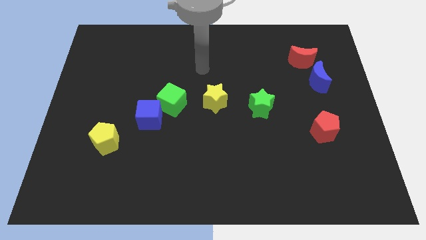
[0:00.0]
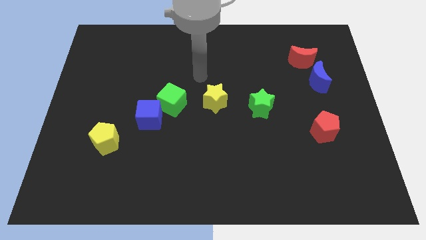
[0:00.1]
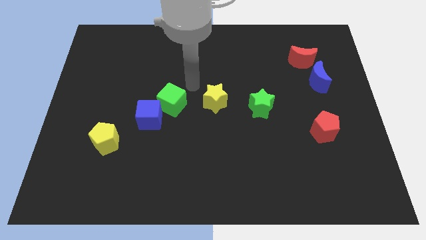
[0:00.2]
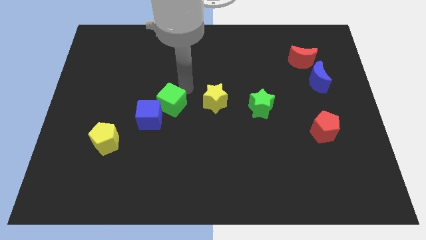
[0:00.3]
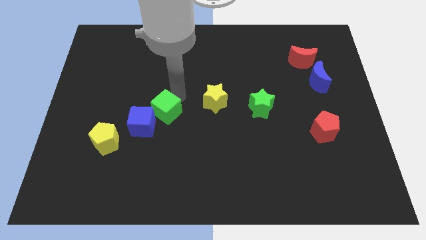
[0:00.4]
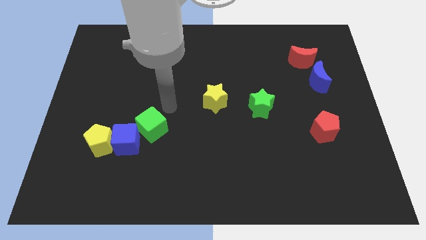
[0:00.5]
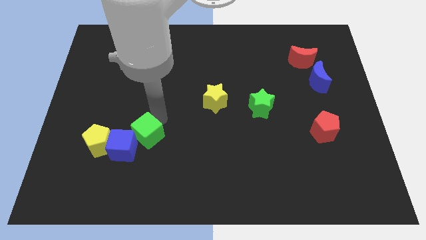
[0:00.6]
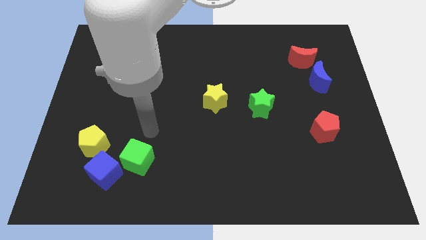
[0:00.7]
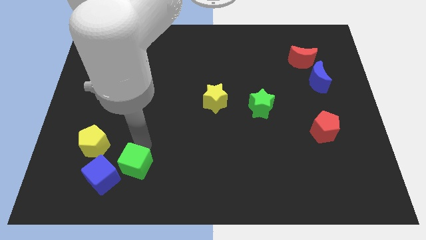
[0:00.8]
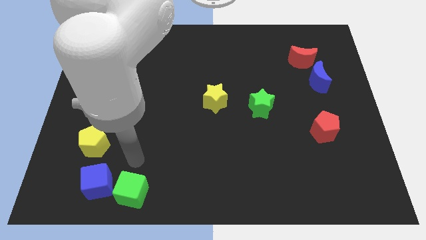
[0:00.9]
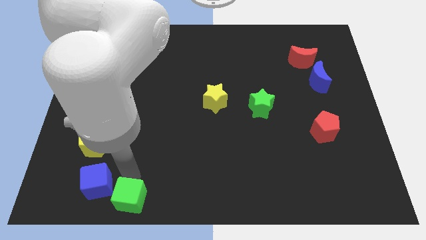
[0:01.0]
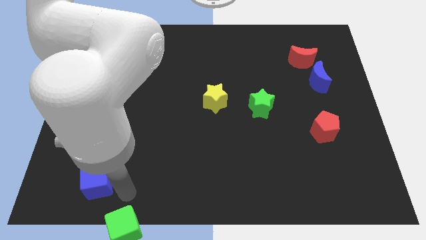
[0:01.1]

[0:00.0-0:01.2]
pull the blue cube apart from the green cube

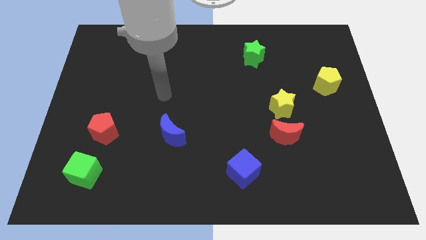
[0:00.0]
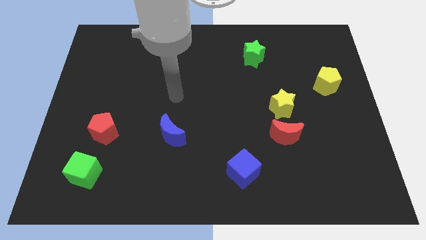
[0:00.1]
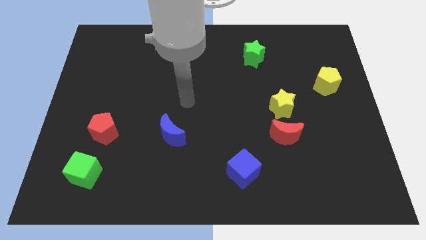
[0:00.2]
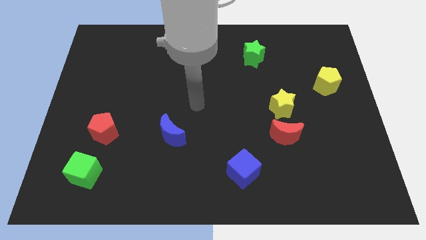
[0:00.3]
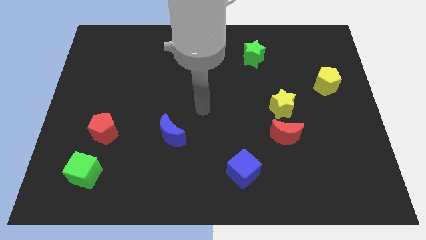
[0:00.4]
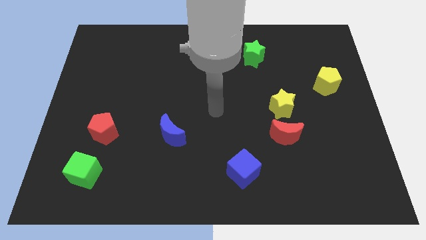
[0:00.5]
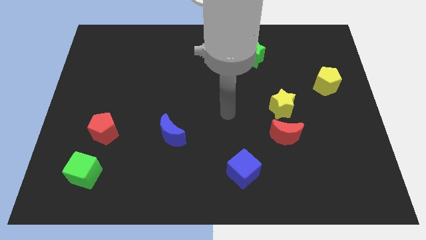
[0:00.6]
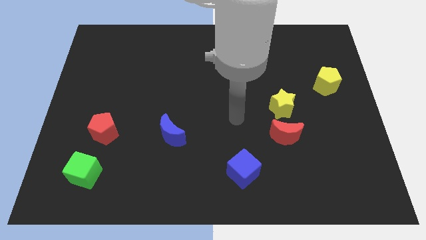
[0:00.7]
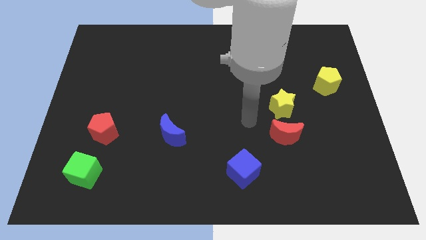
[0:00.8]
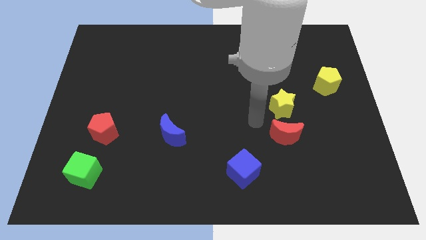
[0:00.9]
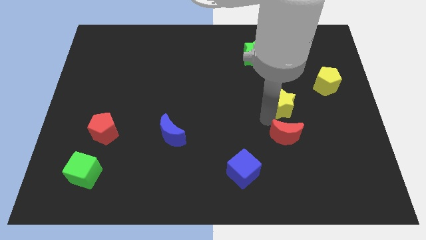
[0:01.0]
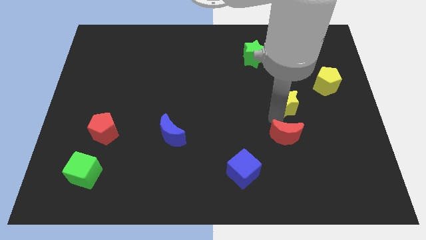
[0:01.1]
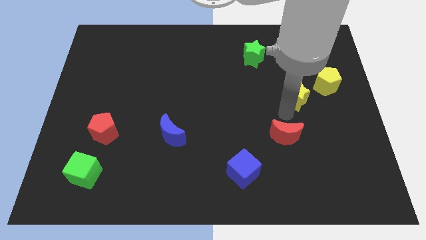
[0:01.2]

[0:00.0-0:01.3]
separate the red moon from the yellow star

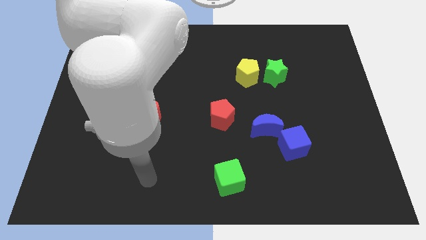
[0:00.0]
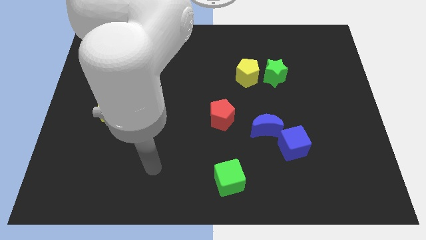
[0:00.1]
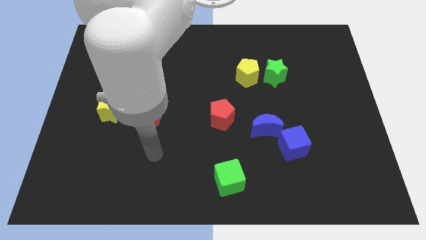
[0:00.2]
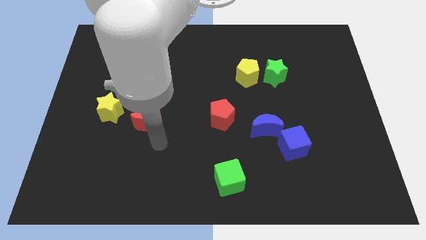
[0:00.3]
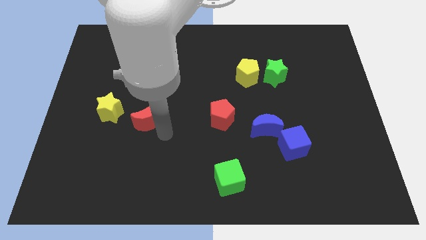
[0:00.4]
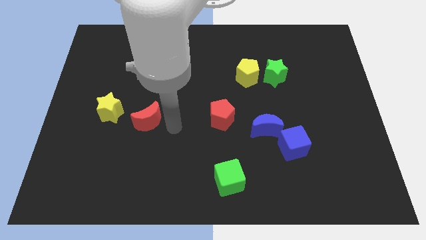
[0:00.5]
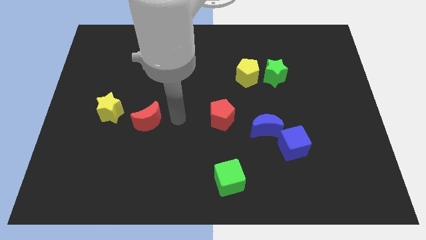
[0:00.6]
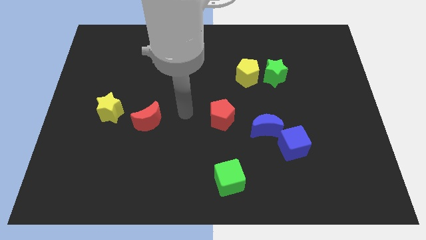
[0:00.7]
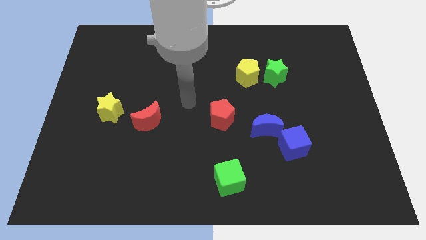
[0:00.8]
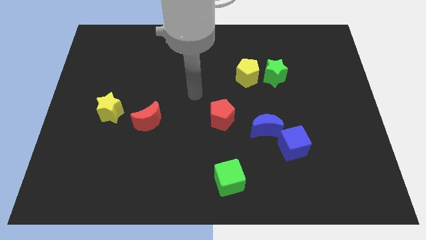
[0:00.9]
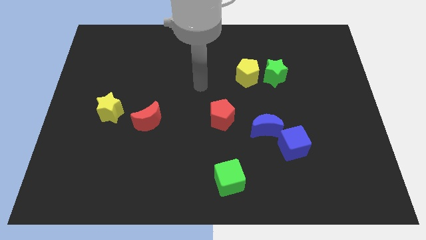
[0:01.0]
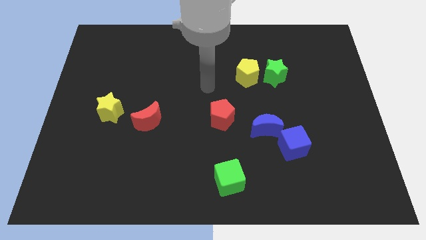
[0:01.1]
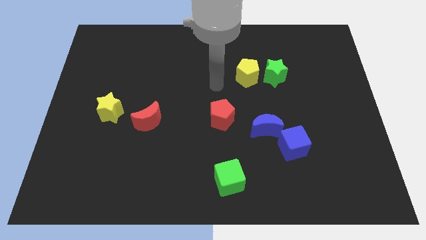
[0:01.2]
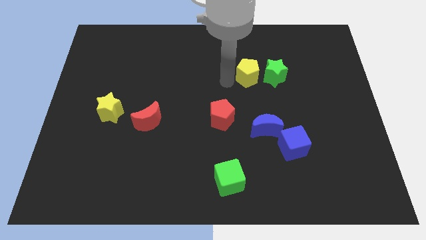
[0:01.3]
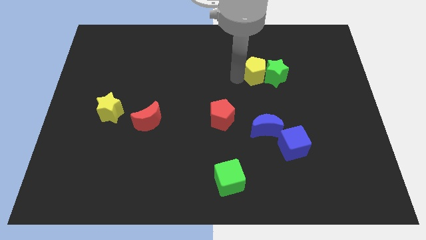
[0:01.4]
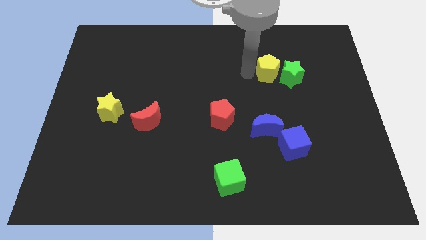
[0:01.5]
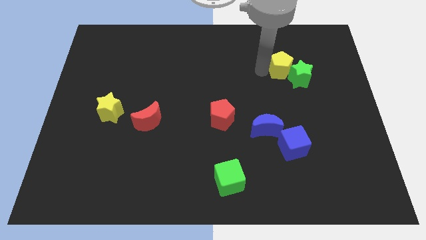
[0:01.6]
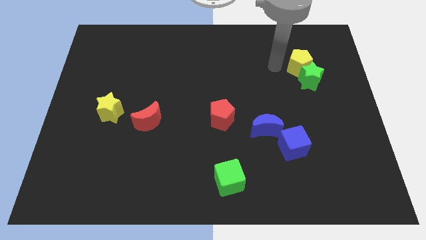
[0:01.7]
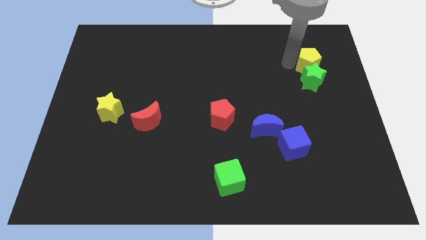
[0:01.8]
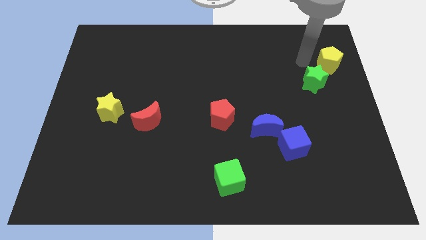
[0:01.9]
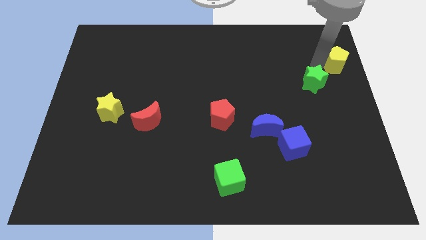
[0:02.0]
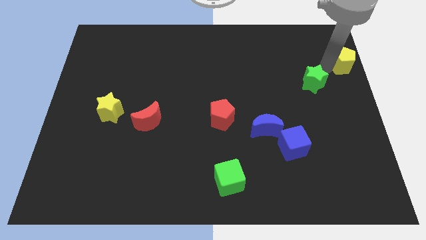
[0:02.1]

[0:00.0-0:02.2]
separate the green star from the yellow pentagon

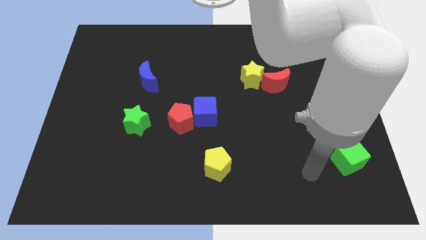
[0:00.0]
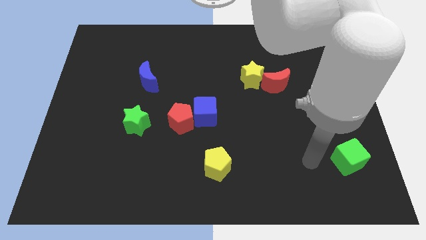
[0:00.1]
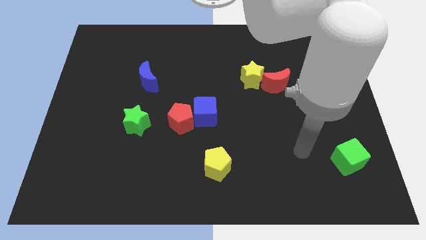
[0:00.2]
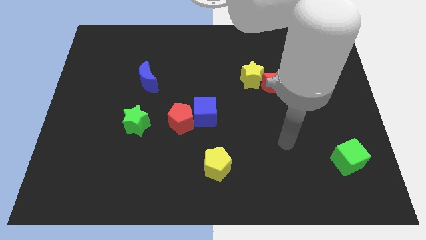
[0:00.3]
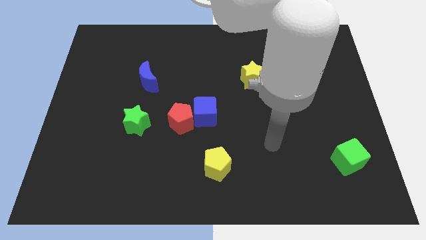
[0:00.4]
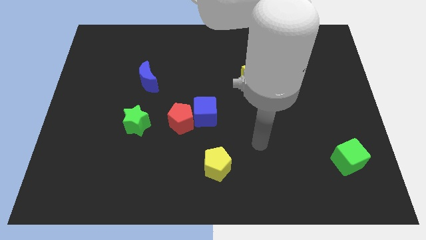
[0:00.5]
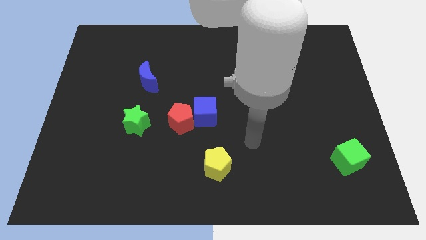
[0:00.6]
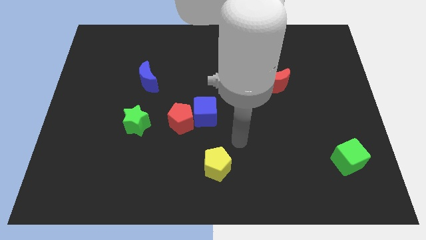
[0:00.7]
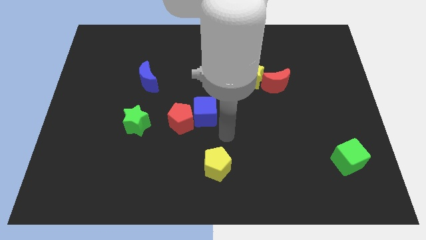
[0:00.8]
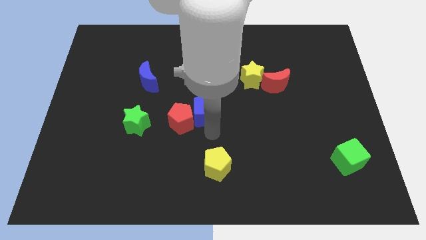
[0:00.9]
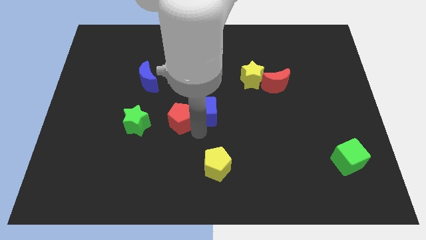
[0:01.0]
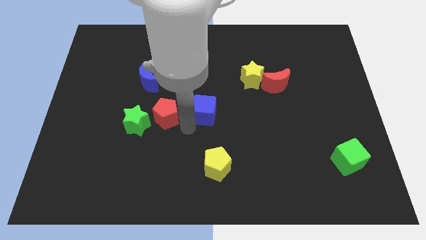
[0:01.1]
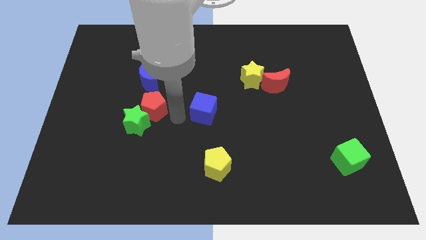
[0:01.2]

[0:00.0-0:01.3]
move the blue cube away from the red pentagon

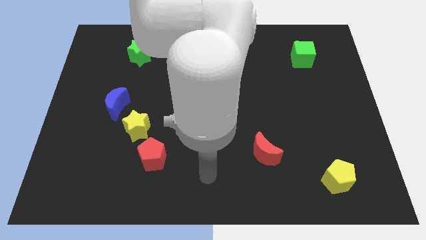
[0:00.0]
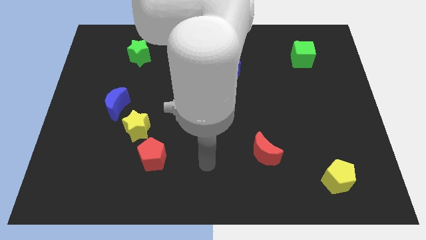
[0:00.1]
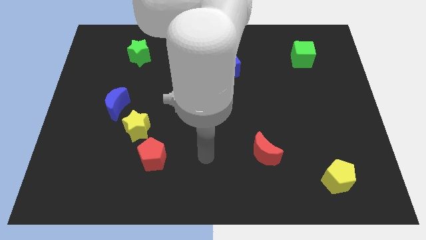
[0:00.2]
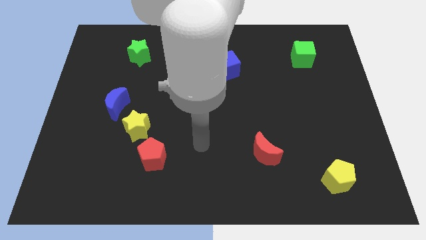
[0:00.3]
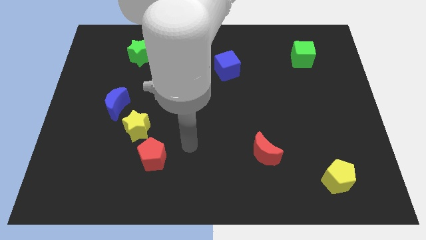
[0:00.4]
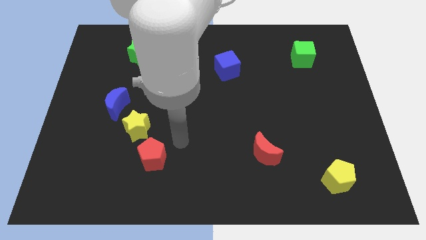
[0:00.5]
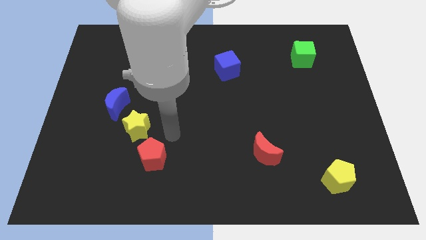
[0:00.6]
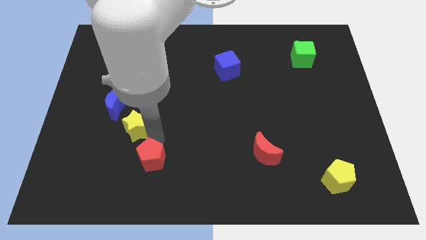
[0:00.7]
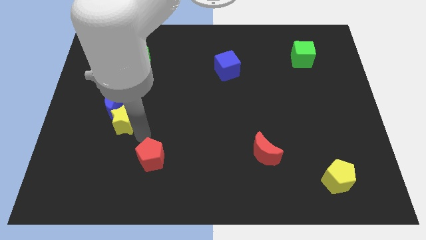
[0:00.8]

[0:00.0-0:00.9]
separate the red pentagon from the yellow star

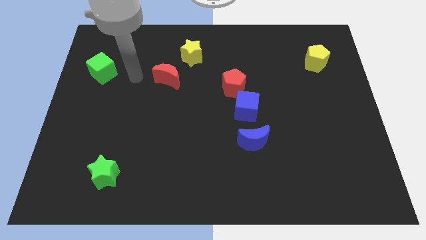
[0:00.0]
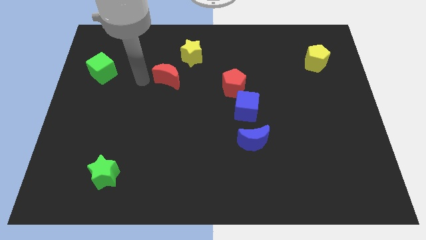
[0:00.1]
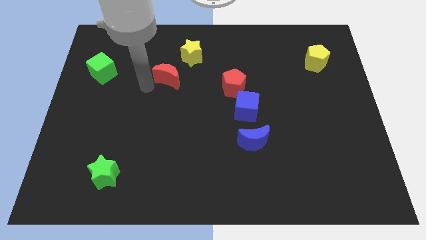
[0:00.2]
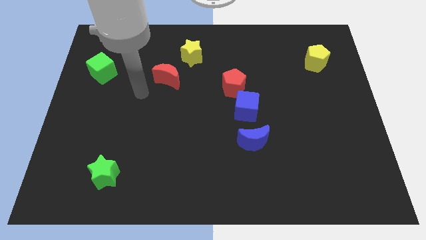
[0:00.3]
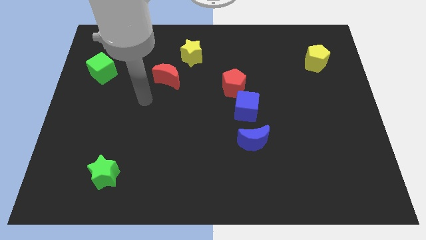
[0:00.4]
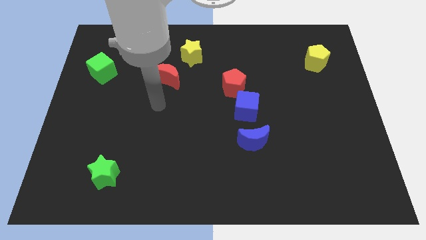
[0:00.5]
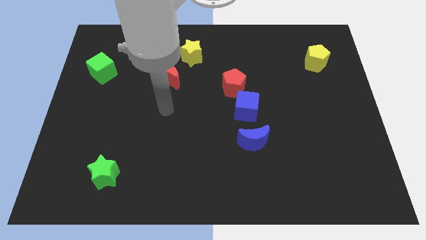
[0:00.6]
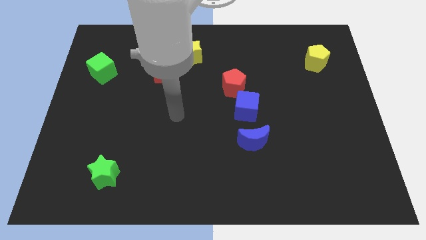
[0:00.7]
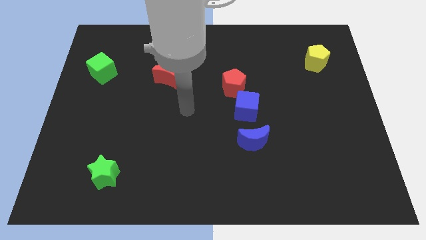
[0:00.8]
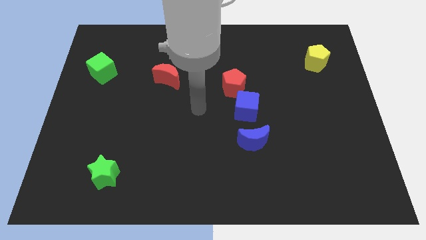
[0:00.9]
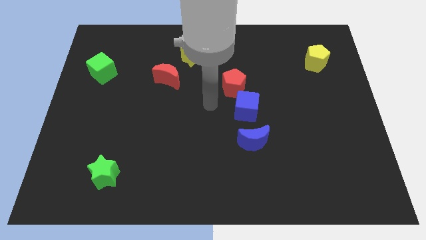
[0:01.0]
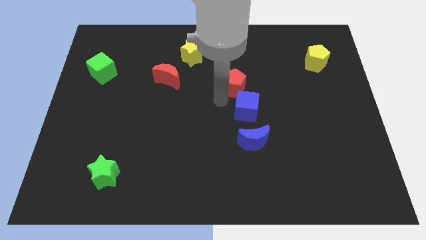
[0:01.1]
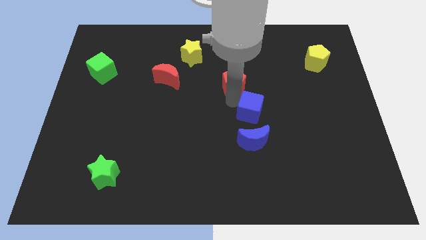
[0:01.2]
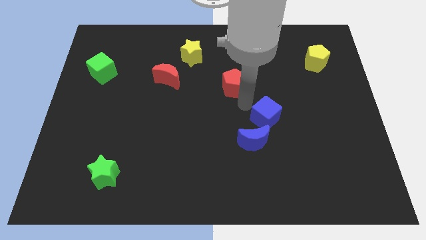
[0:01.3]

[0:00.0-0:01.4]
move the red pentagon away from the blue cube

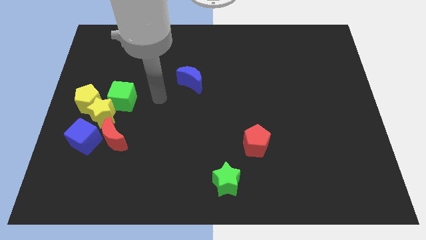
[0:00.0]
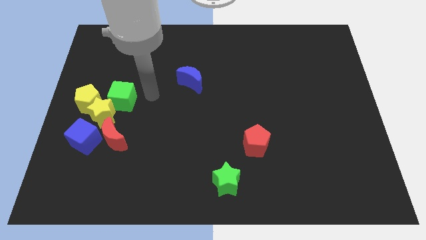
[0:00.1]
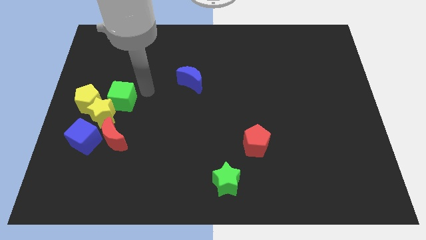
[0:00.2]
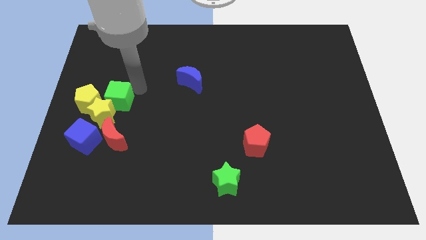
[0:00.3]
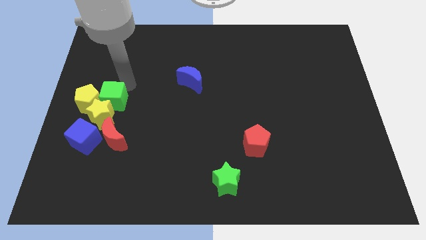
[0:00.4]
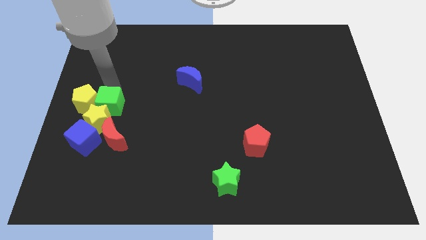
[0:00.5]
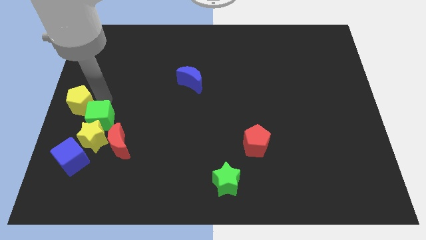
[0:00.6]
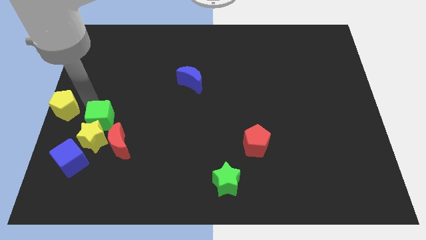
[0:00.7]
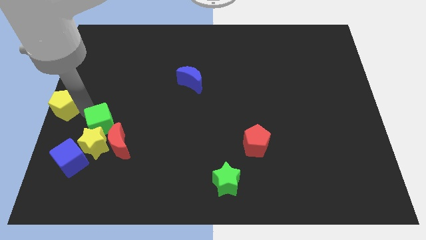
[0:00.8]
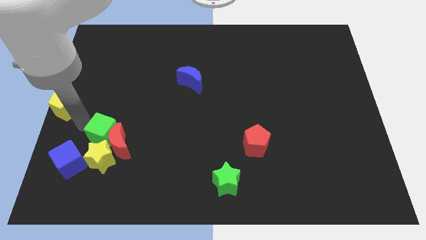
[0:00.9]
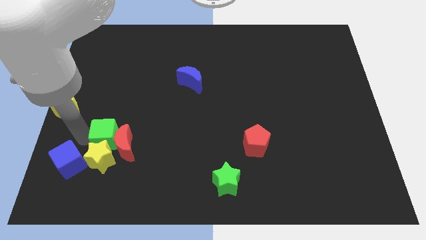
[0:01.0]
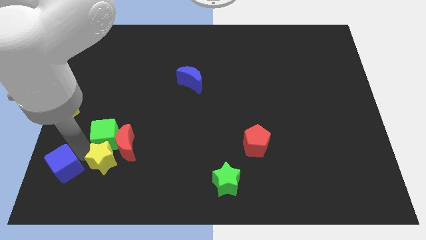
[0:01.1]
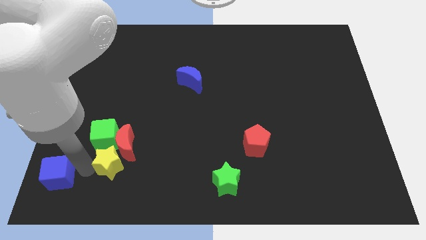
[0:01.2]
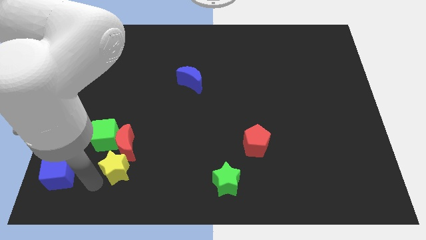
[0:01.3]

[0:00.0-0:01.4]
separate the yellow star from the clump
